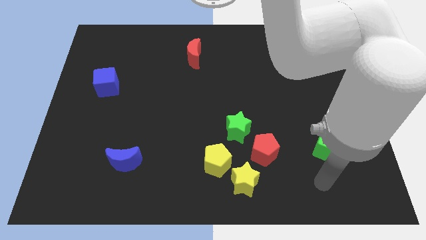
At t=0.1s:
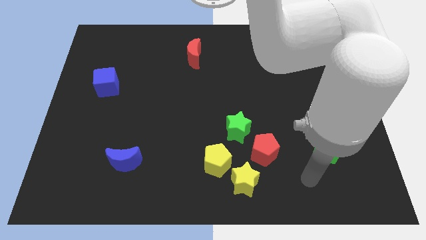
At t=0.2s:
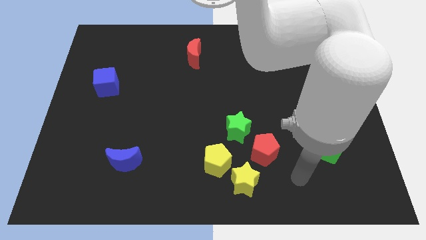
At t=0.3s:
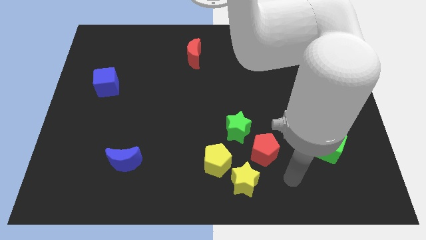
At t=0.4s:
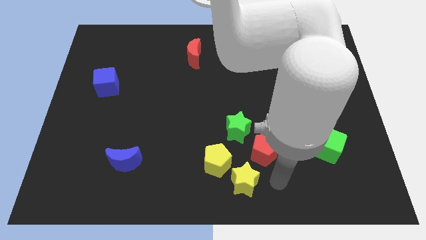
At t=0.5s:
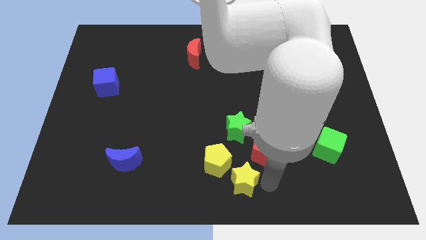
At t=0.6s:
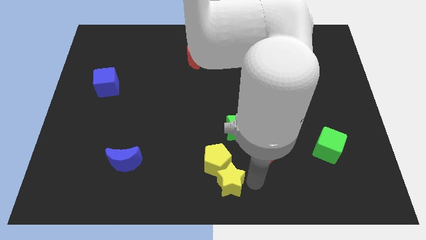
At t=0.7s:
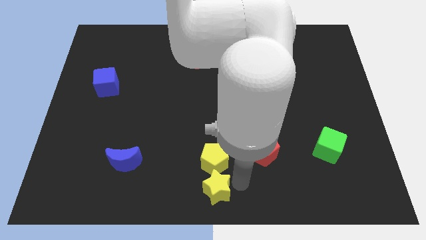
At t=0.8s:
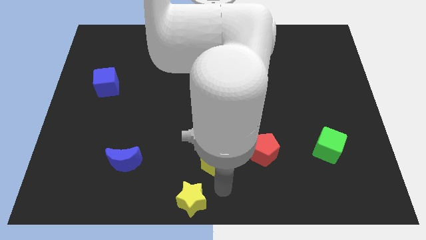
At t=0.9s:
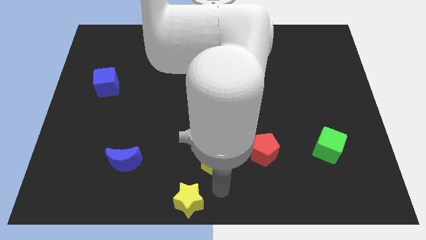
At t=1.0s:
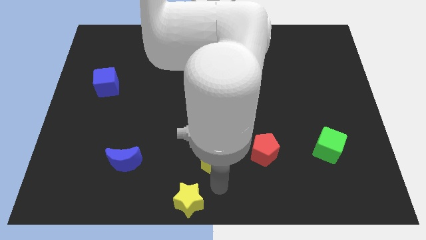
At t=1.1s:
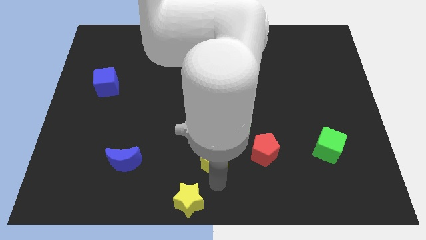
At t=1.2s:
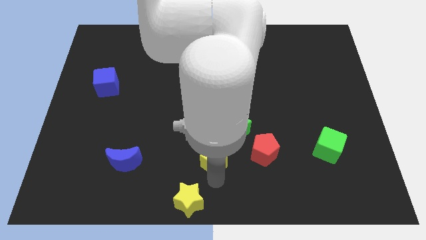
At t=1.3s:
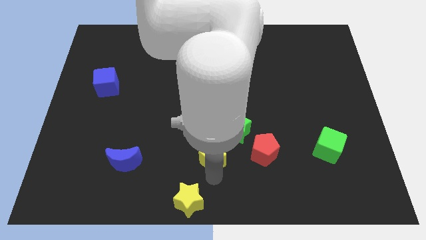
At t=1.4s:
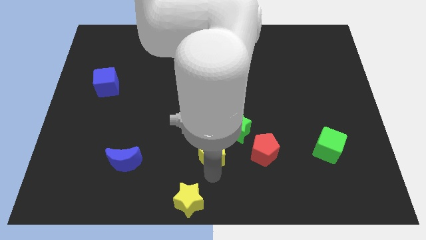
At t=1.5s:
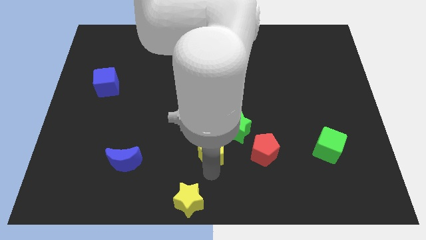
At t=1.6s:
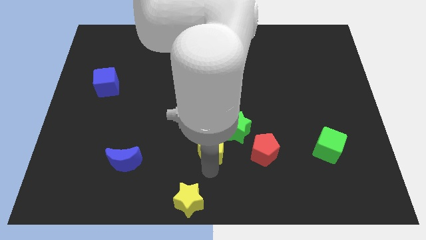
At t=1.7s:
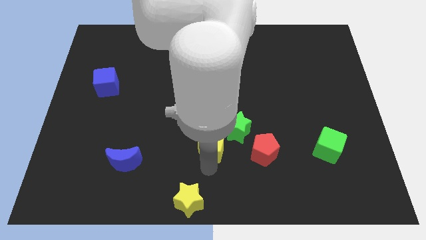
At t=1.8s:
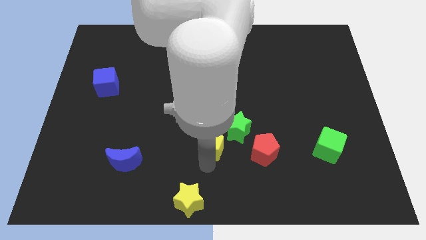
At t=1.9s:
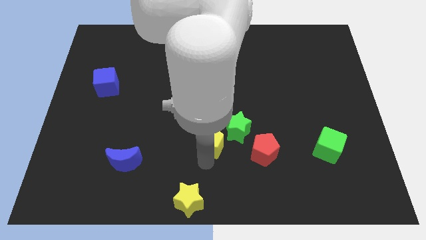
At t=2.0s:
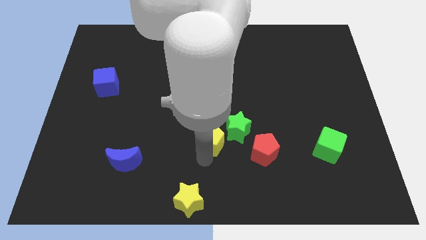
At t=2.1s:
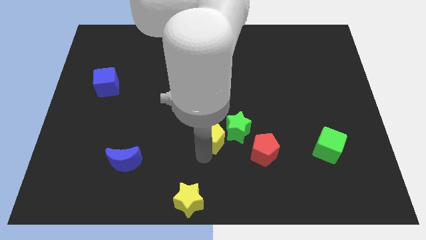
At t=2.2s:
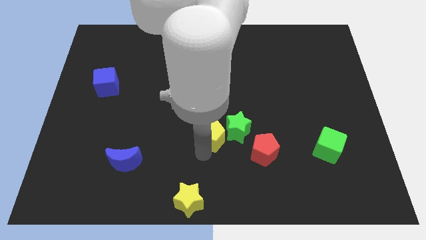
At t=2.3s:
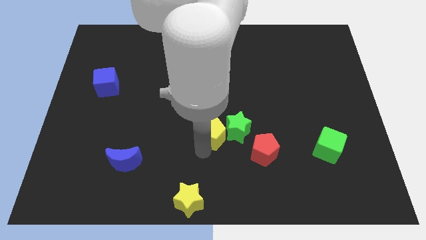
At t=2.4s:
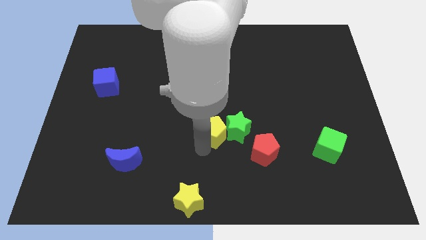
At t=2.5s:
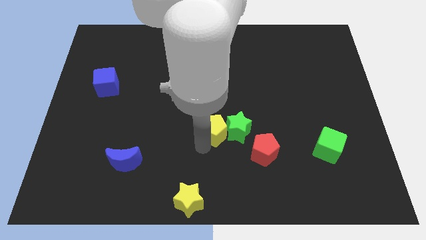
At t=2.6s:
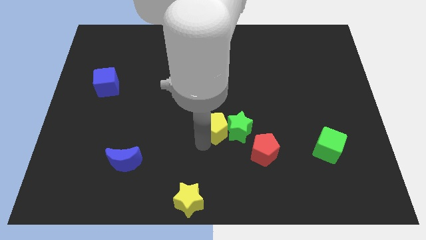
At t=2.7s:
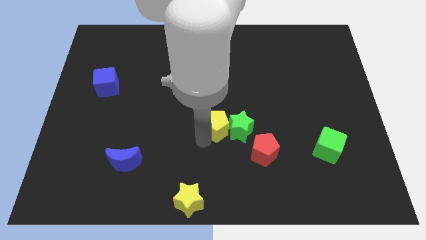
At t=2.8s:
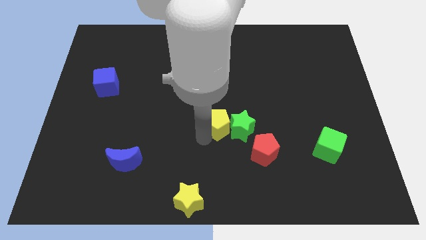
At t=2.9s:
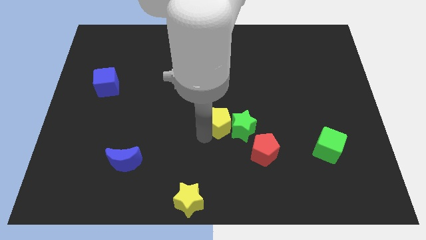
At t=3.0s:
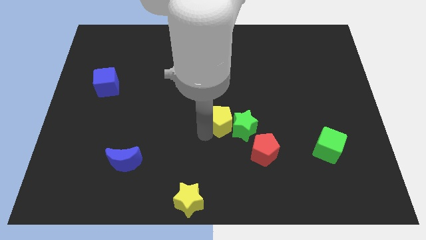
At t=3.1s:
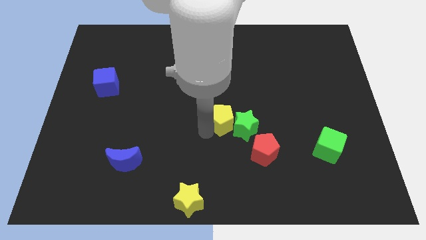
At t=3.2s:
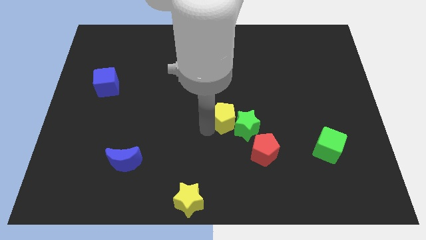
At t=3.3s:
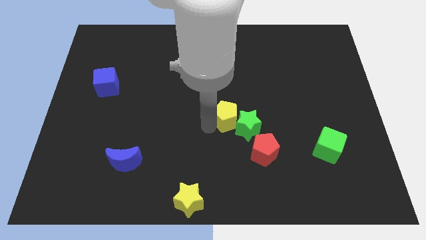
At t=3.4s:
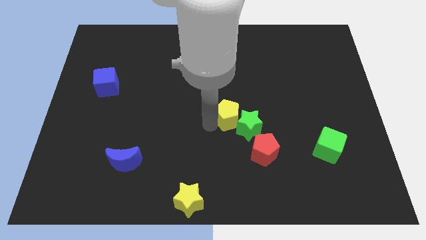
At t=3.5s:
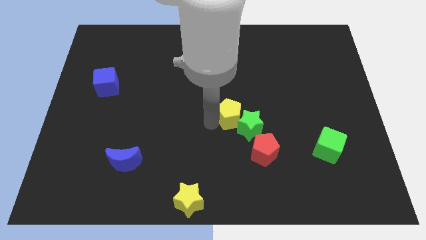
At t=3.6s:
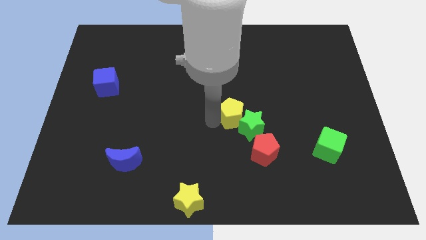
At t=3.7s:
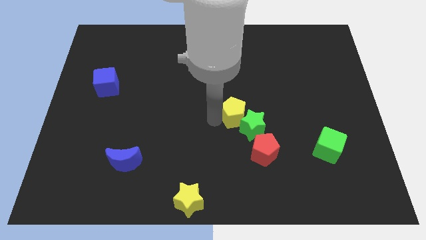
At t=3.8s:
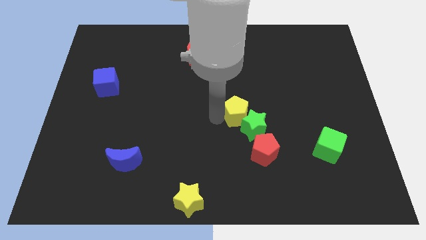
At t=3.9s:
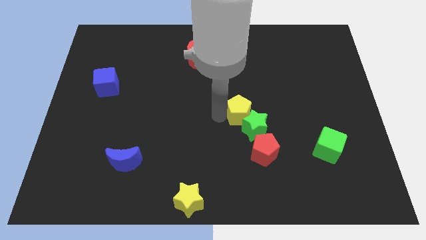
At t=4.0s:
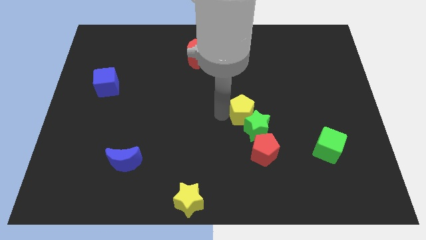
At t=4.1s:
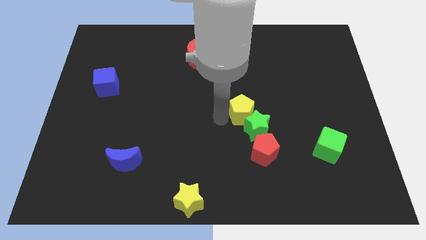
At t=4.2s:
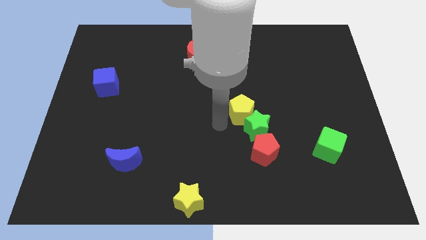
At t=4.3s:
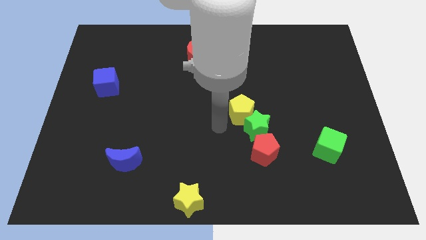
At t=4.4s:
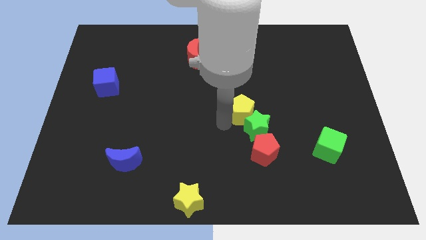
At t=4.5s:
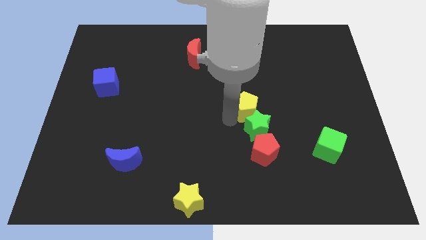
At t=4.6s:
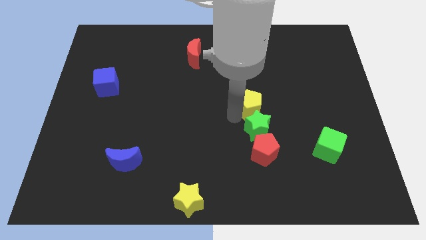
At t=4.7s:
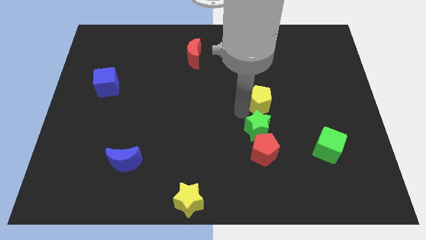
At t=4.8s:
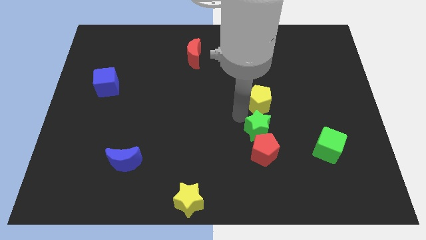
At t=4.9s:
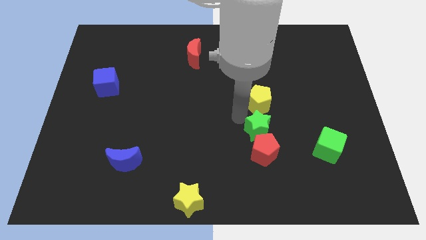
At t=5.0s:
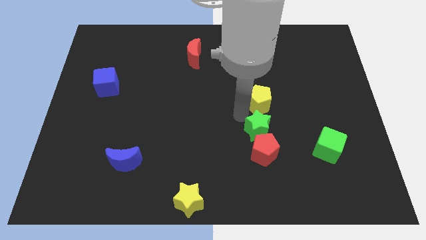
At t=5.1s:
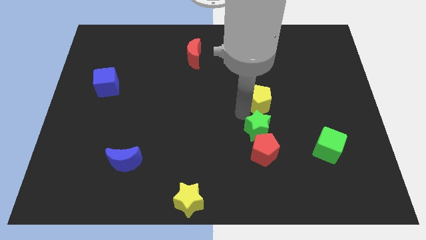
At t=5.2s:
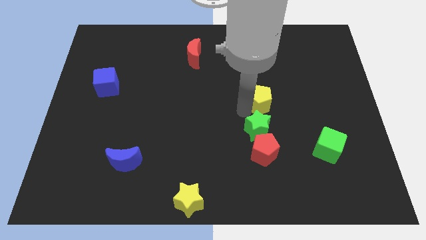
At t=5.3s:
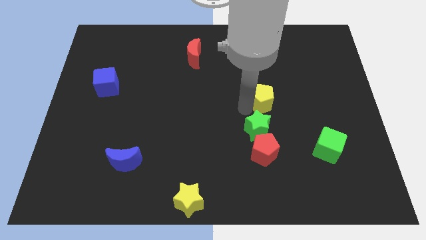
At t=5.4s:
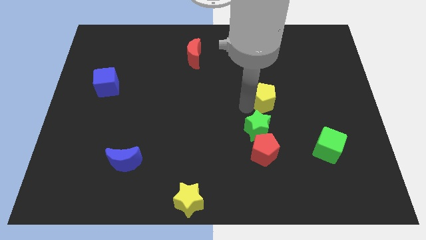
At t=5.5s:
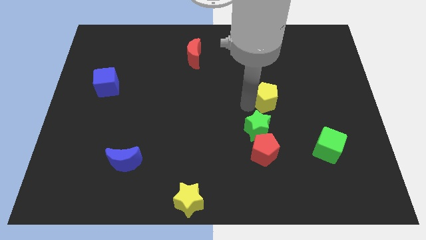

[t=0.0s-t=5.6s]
move the yellow pentagon upwards and then right

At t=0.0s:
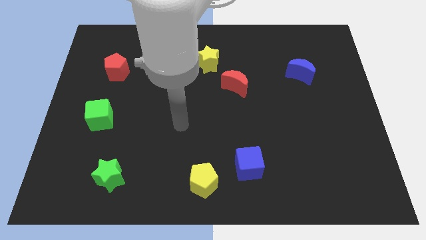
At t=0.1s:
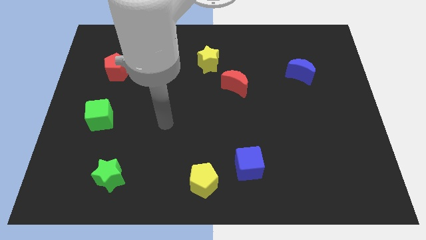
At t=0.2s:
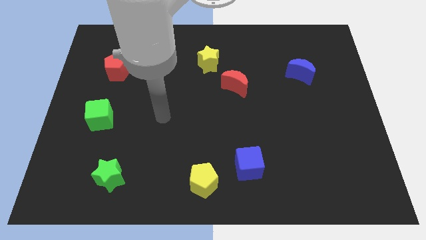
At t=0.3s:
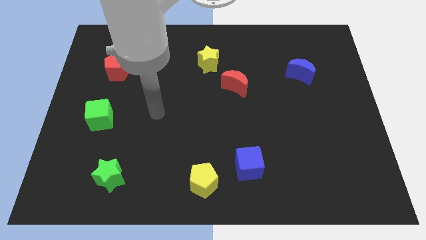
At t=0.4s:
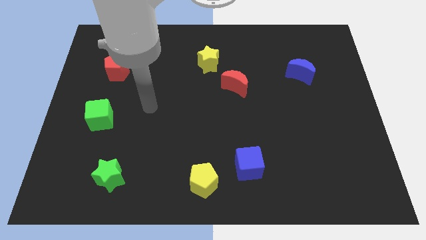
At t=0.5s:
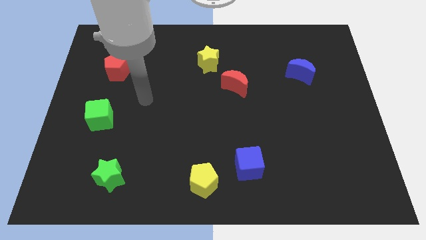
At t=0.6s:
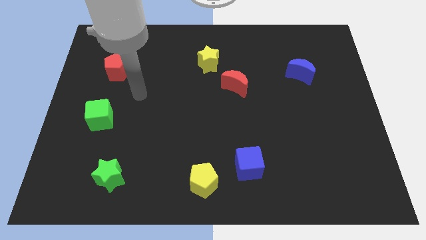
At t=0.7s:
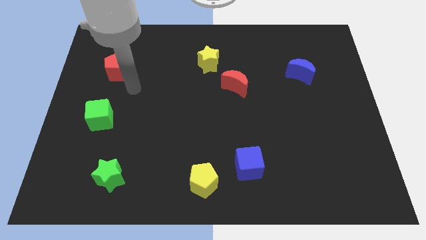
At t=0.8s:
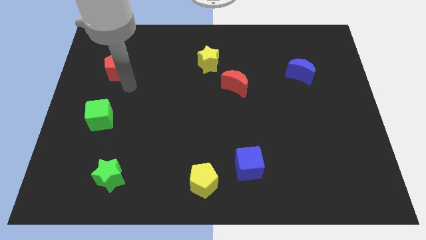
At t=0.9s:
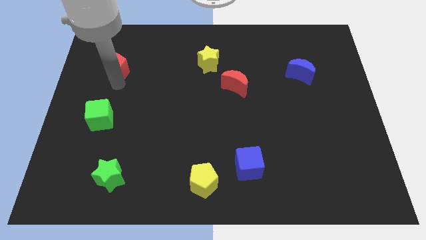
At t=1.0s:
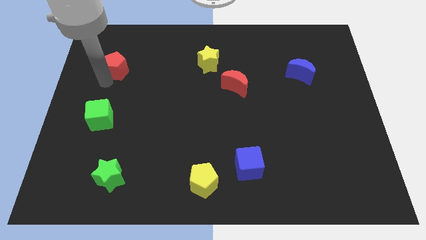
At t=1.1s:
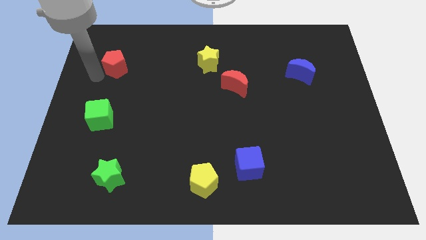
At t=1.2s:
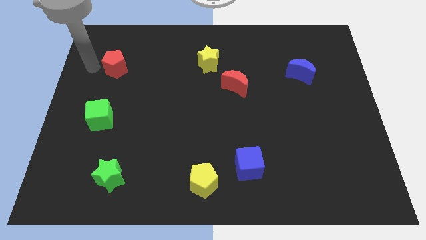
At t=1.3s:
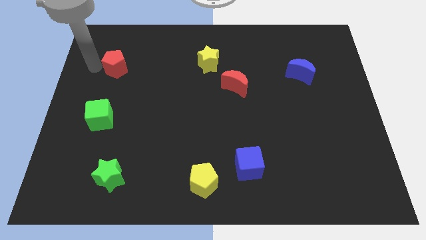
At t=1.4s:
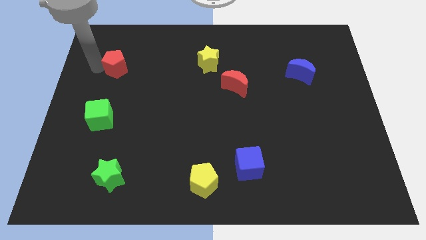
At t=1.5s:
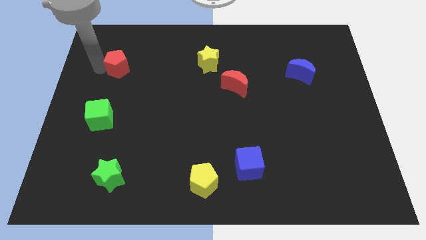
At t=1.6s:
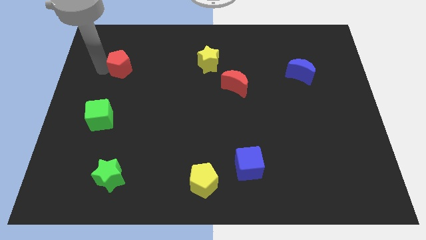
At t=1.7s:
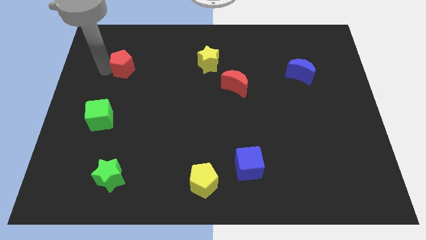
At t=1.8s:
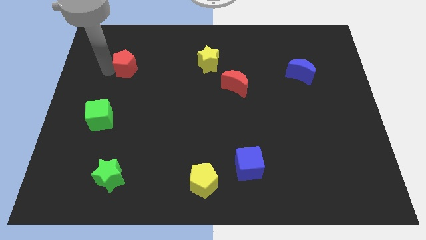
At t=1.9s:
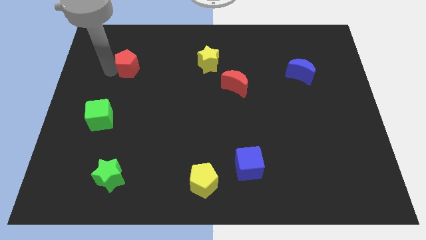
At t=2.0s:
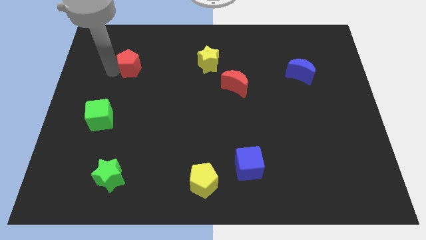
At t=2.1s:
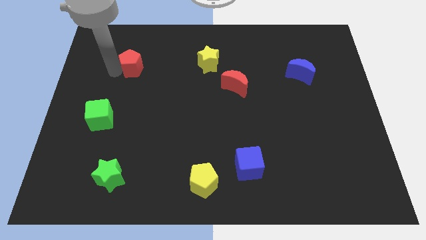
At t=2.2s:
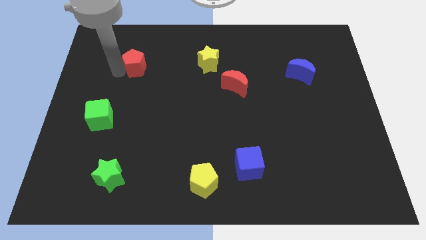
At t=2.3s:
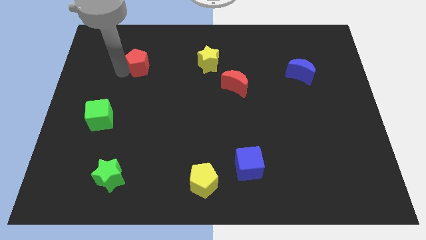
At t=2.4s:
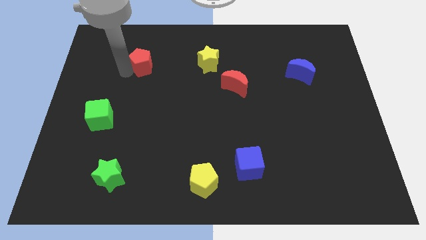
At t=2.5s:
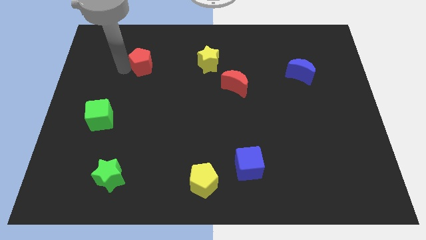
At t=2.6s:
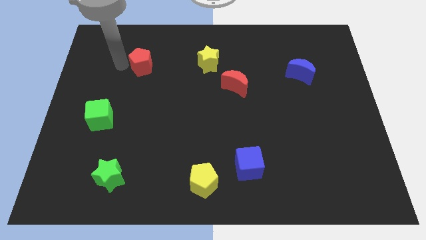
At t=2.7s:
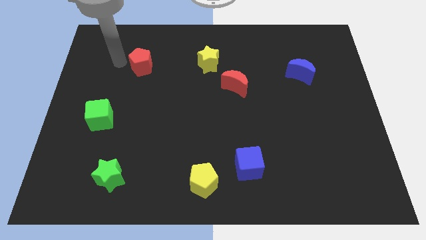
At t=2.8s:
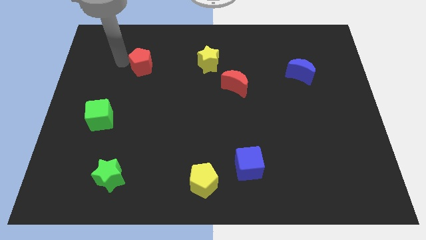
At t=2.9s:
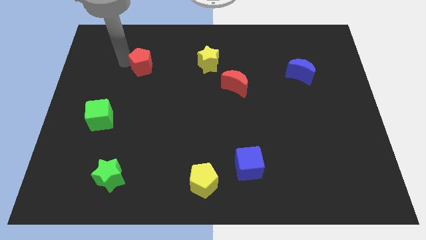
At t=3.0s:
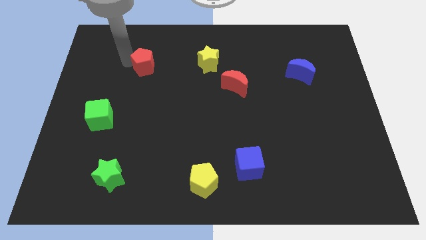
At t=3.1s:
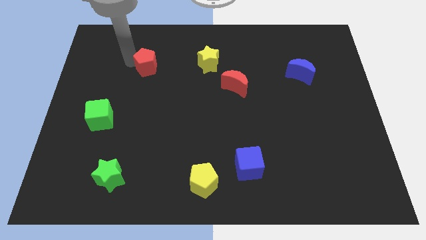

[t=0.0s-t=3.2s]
move the red pentagon right slightly
